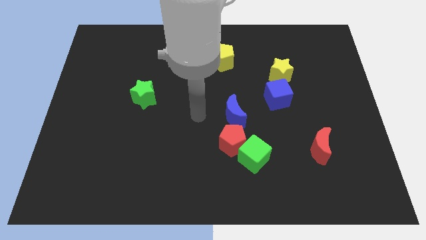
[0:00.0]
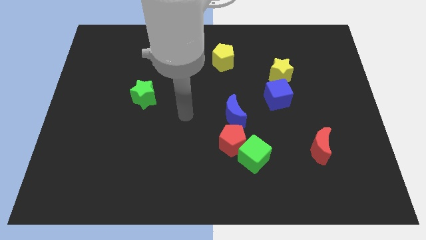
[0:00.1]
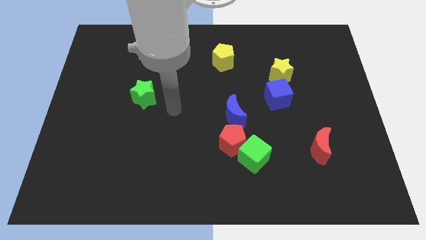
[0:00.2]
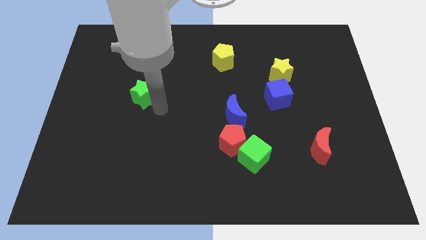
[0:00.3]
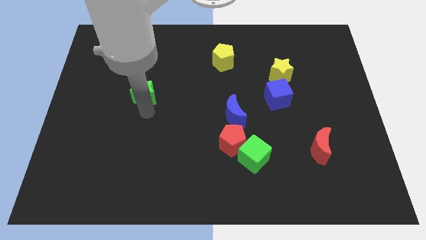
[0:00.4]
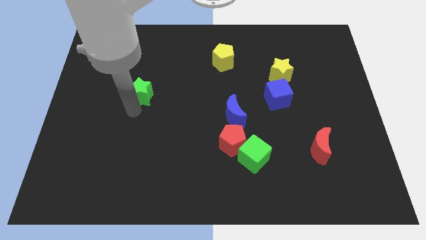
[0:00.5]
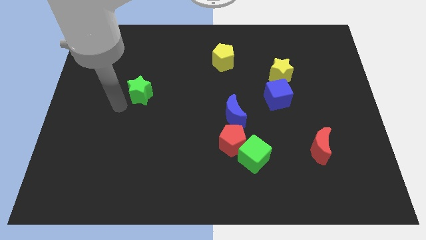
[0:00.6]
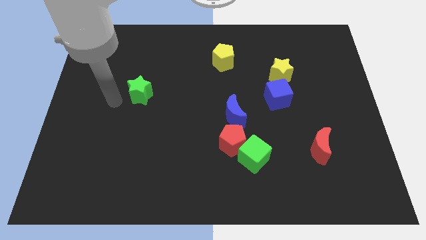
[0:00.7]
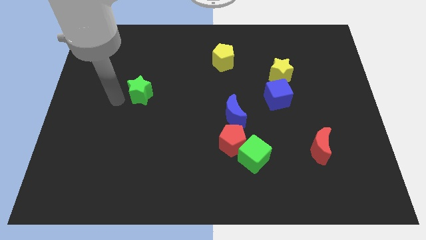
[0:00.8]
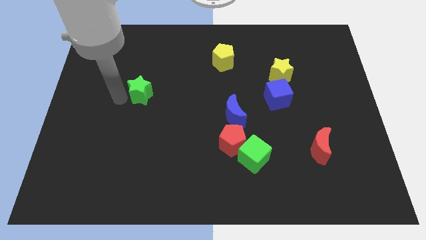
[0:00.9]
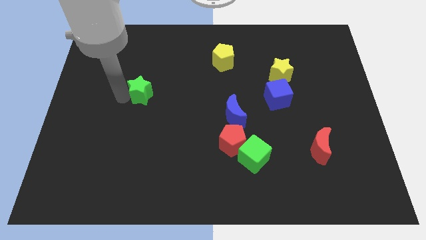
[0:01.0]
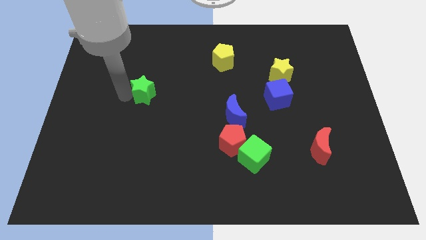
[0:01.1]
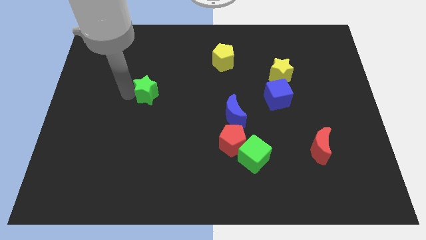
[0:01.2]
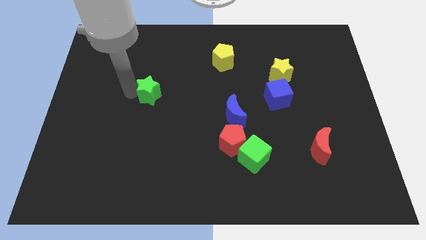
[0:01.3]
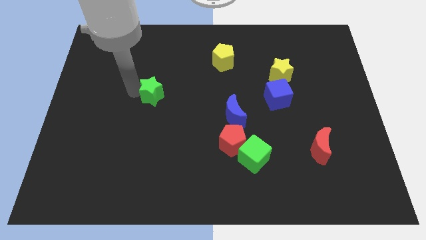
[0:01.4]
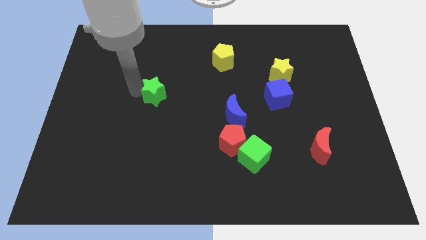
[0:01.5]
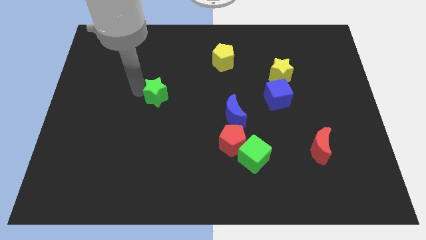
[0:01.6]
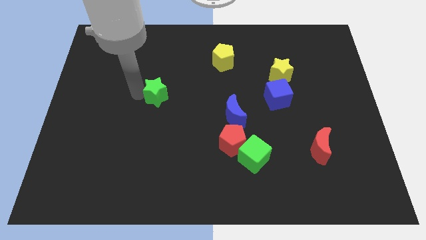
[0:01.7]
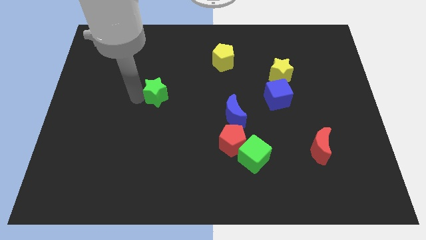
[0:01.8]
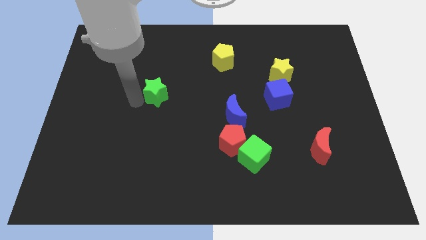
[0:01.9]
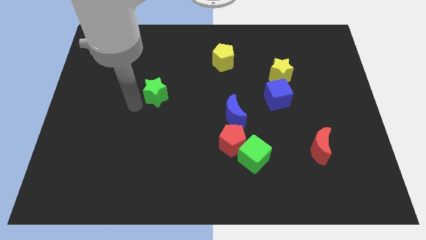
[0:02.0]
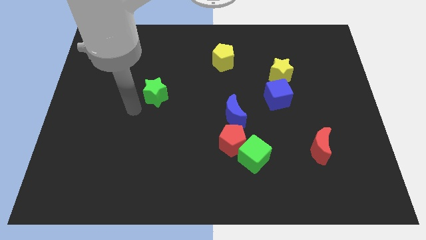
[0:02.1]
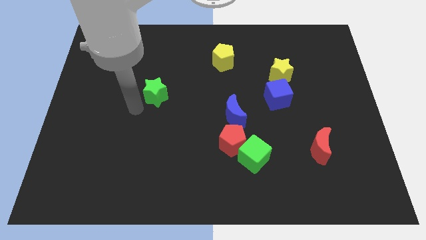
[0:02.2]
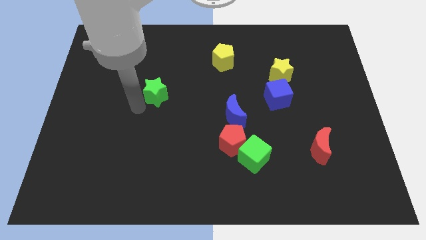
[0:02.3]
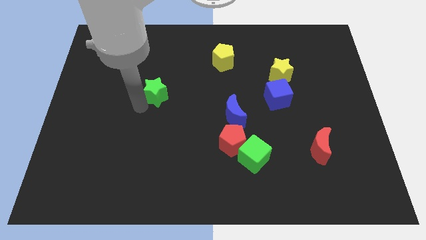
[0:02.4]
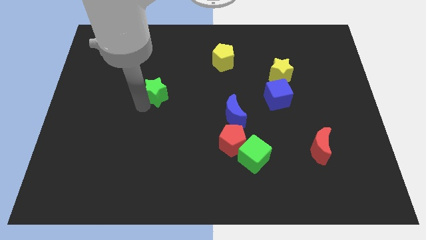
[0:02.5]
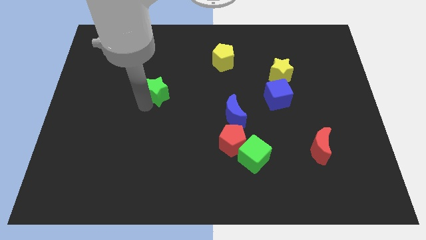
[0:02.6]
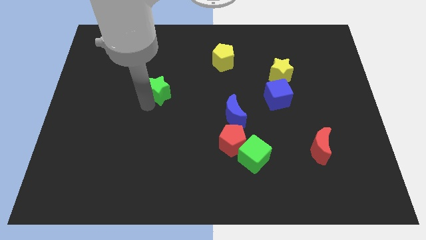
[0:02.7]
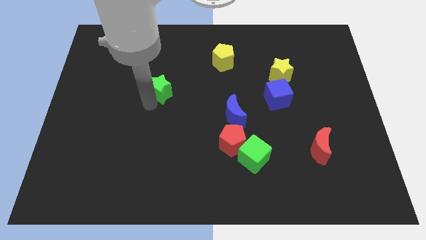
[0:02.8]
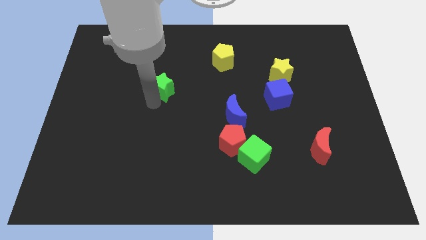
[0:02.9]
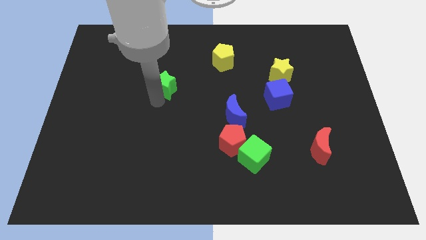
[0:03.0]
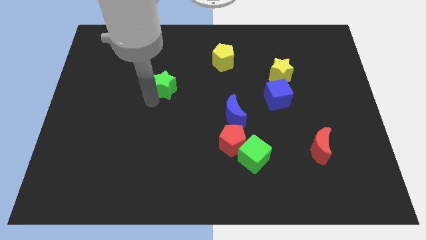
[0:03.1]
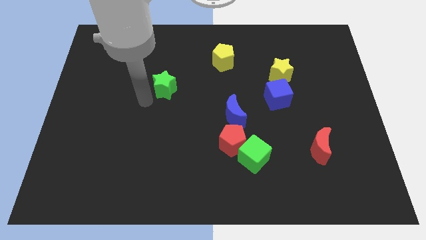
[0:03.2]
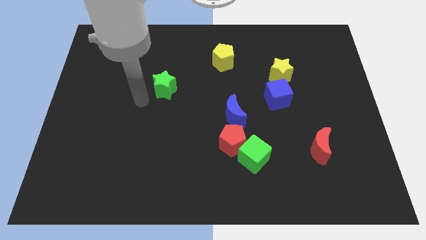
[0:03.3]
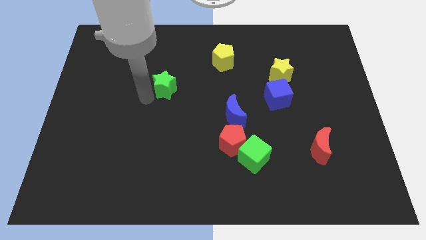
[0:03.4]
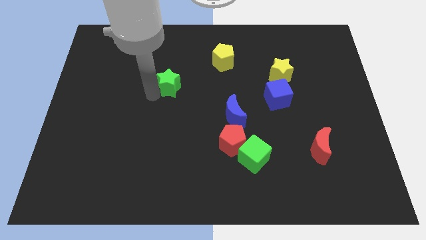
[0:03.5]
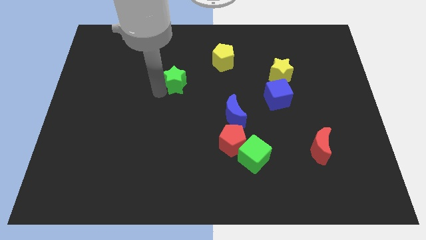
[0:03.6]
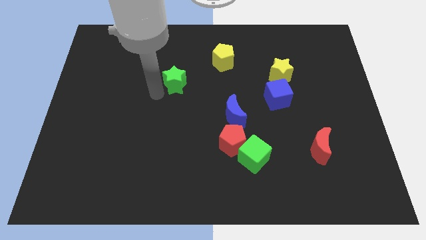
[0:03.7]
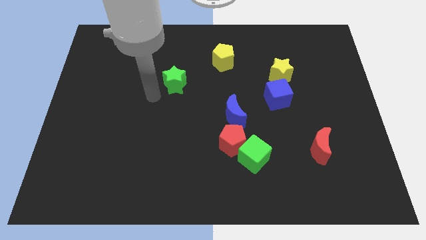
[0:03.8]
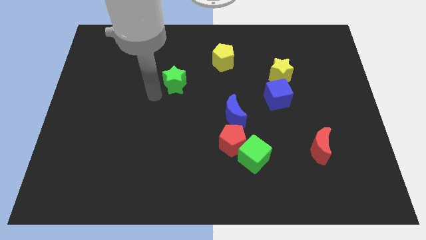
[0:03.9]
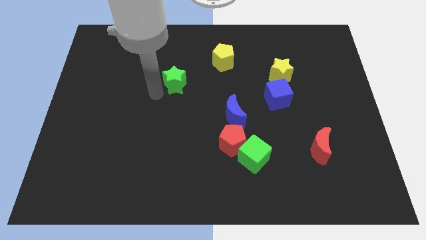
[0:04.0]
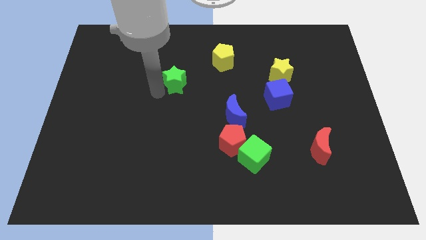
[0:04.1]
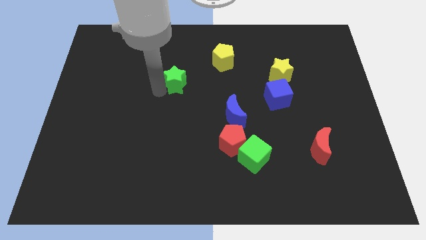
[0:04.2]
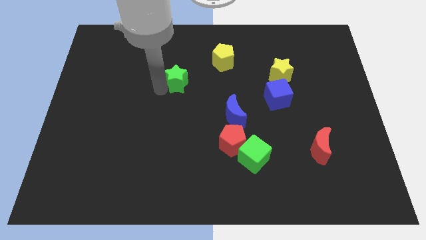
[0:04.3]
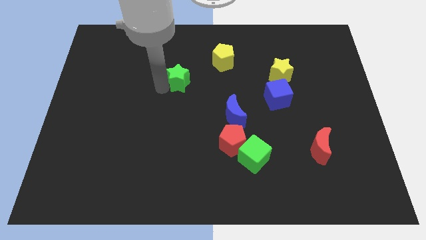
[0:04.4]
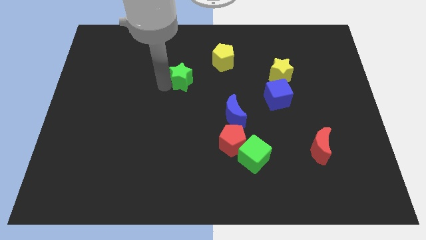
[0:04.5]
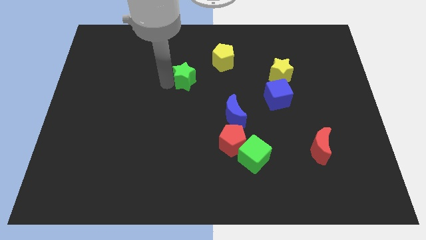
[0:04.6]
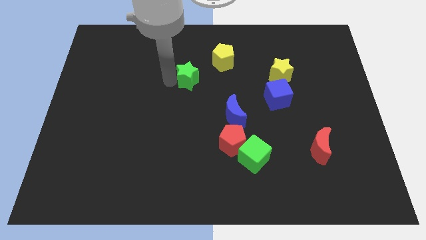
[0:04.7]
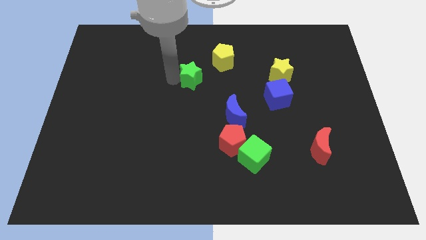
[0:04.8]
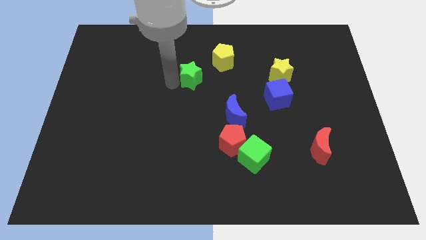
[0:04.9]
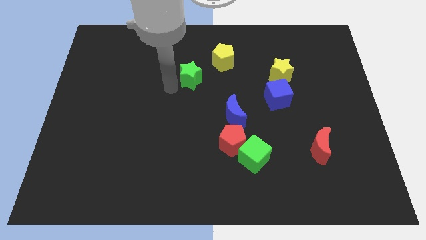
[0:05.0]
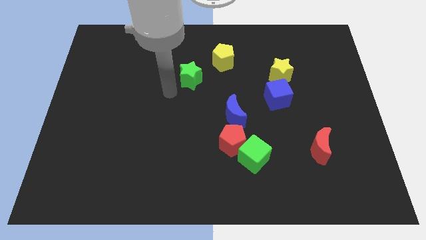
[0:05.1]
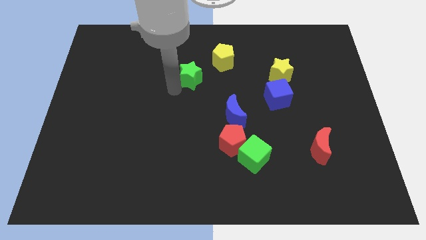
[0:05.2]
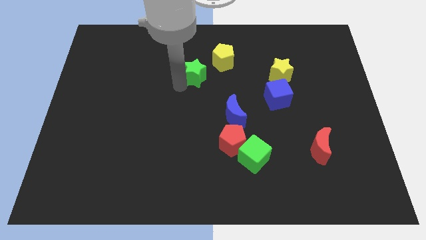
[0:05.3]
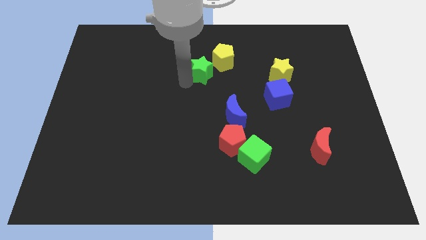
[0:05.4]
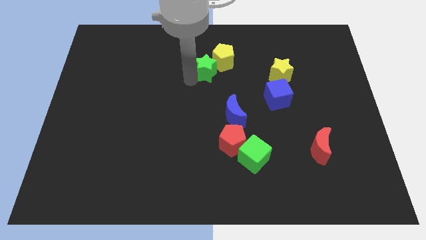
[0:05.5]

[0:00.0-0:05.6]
move the green star next to the yellow pentagon

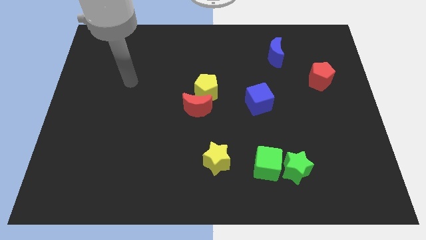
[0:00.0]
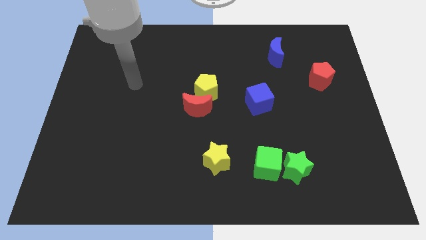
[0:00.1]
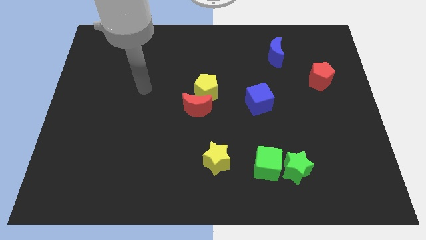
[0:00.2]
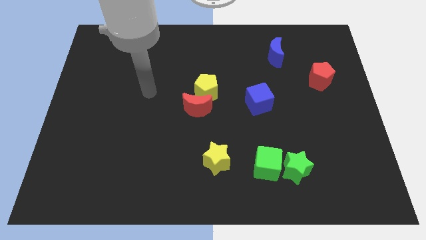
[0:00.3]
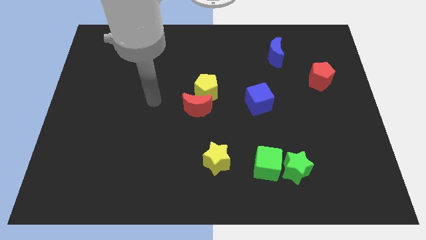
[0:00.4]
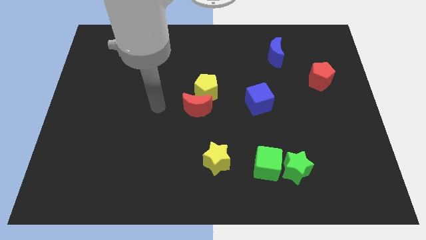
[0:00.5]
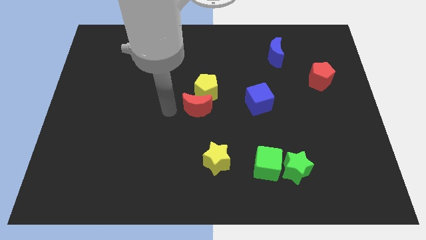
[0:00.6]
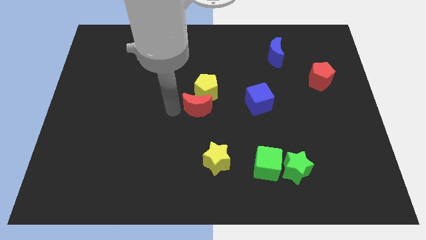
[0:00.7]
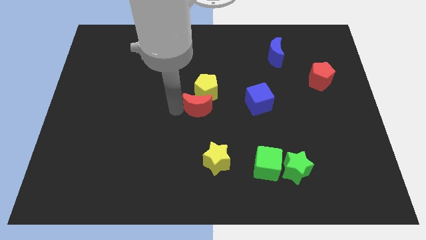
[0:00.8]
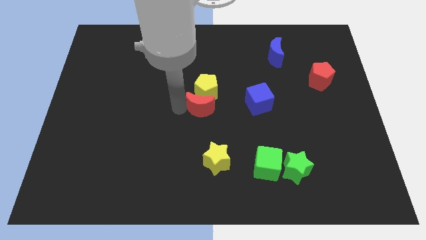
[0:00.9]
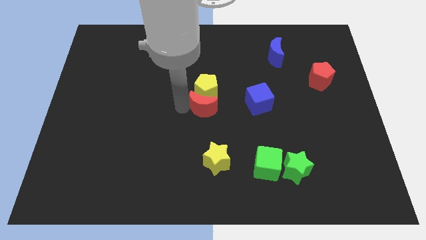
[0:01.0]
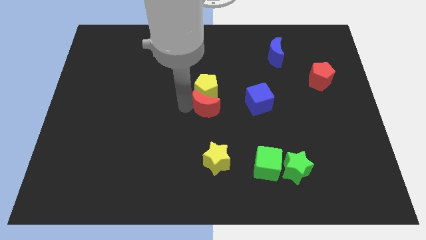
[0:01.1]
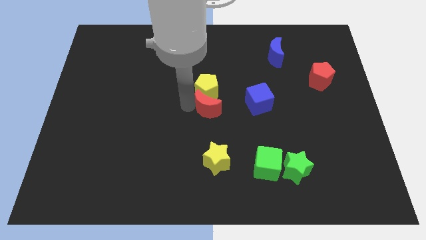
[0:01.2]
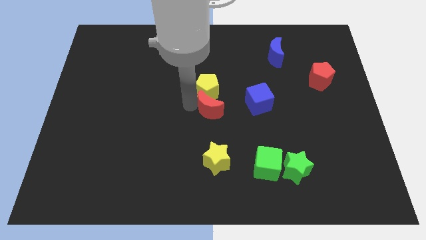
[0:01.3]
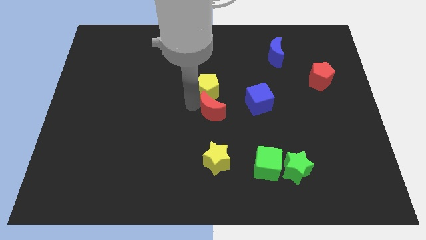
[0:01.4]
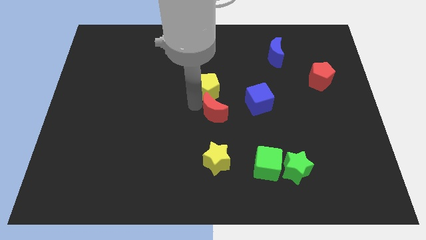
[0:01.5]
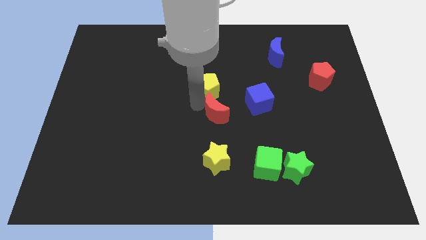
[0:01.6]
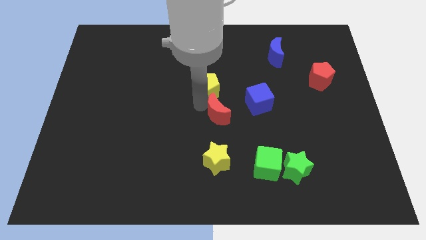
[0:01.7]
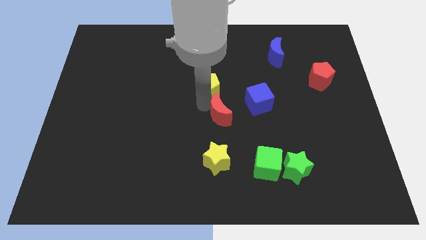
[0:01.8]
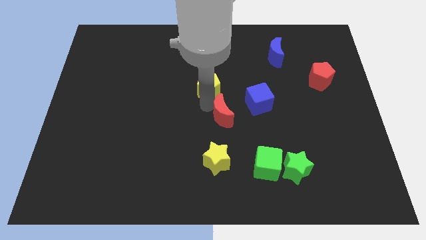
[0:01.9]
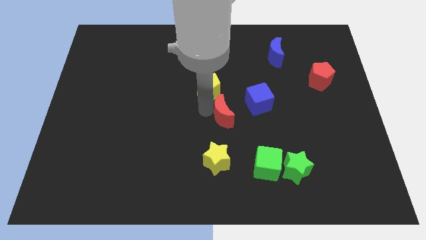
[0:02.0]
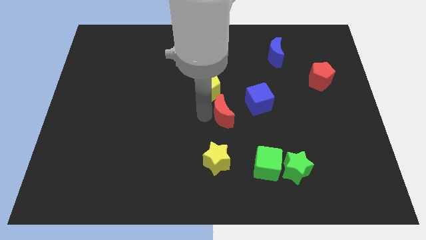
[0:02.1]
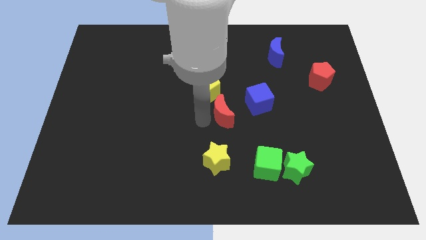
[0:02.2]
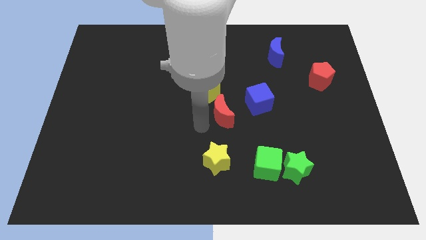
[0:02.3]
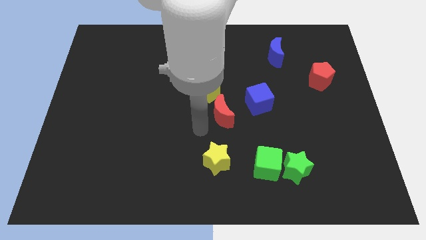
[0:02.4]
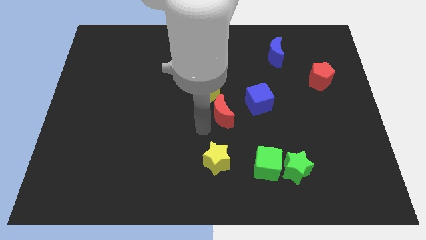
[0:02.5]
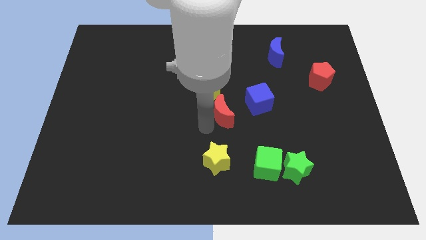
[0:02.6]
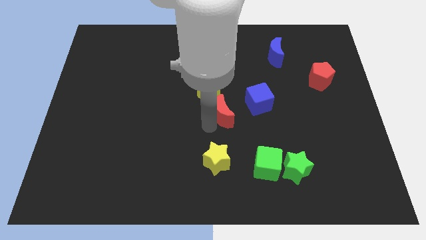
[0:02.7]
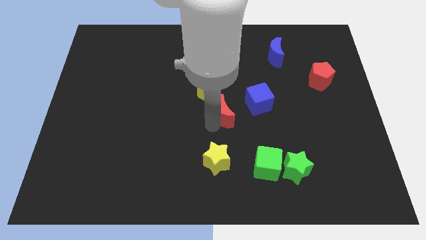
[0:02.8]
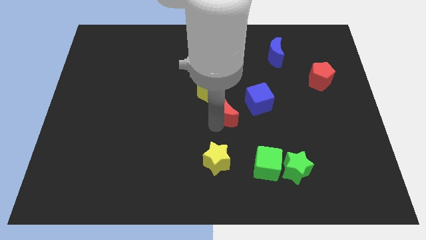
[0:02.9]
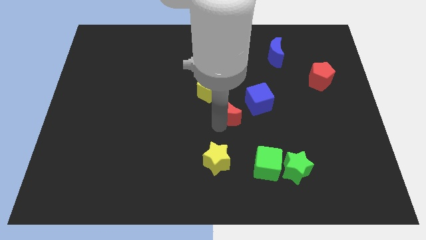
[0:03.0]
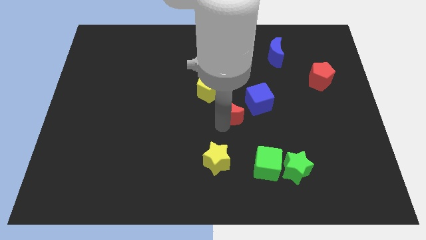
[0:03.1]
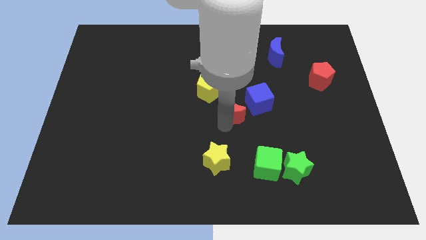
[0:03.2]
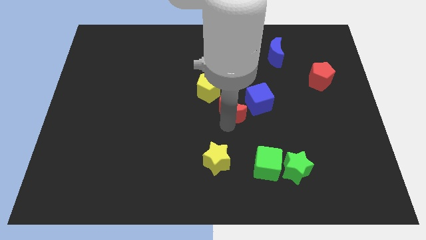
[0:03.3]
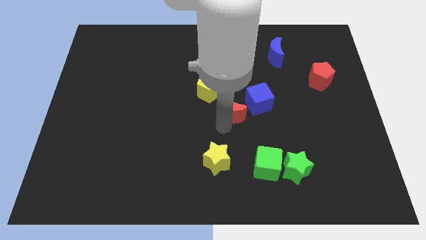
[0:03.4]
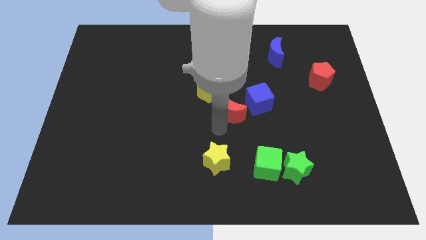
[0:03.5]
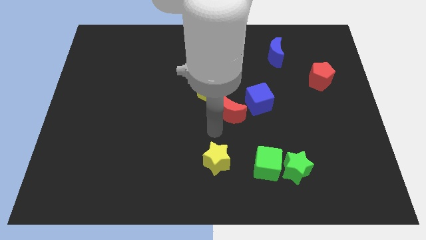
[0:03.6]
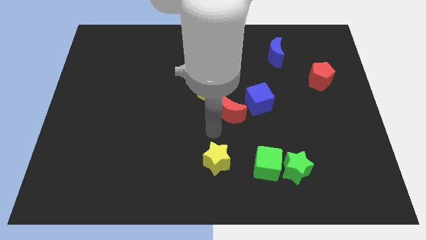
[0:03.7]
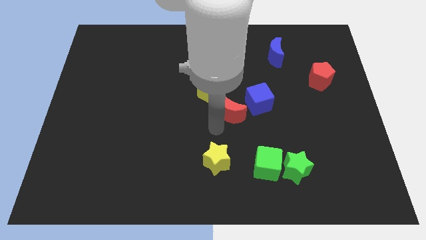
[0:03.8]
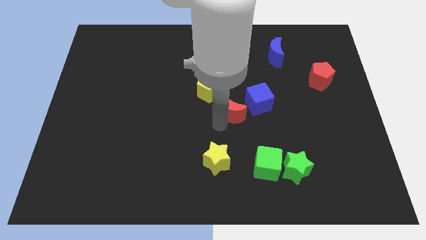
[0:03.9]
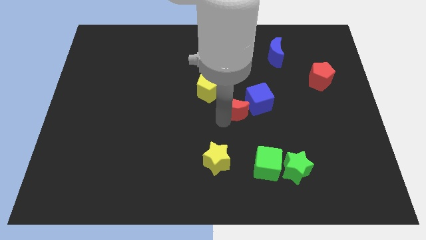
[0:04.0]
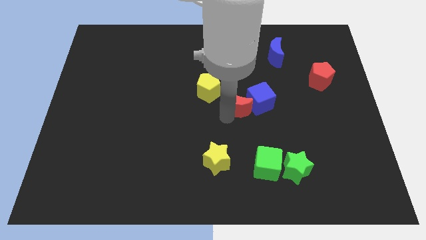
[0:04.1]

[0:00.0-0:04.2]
push the red moon next to the blue cube
